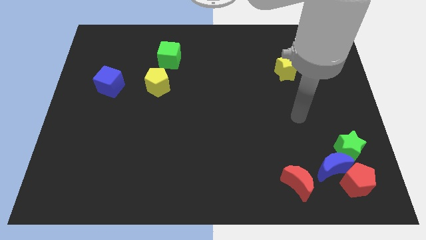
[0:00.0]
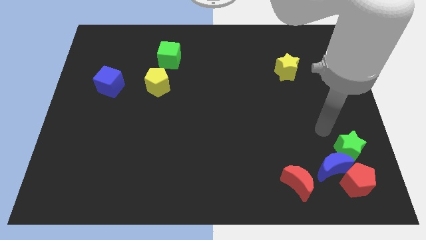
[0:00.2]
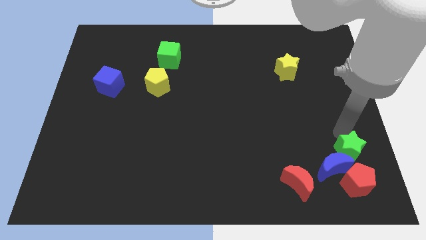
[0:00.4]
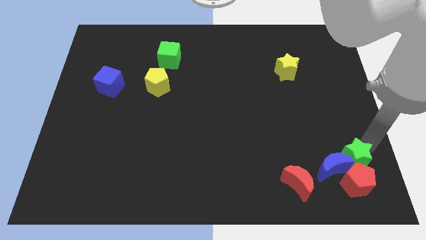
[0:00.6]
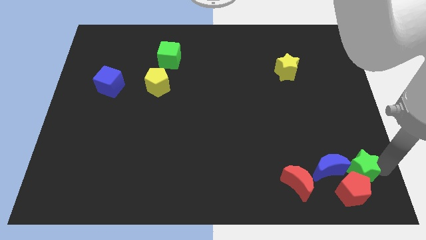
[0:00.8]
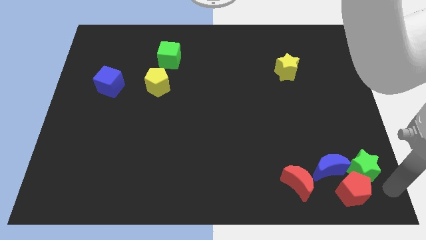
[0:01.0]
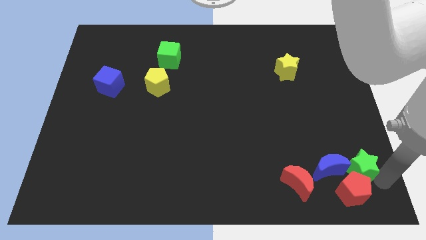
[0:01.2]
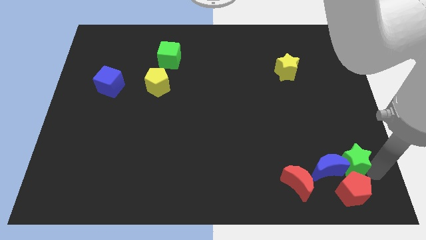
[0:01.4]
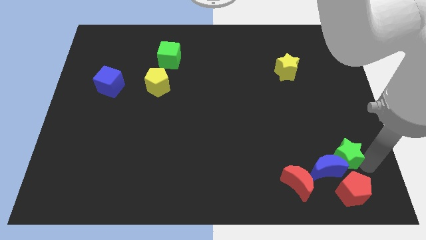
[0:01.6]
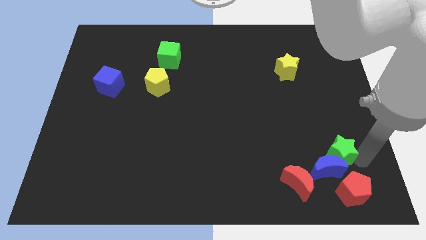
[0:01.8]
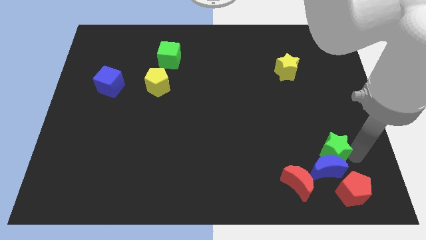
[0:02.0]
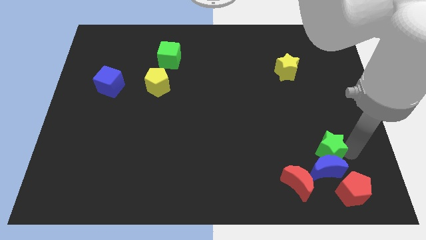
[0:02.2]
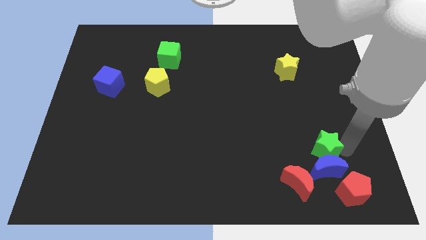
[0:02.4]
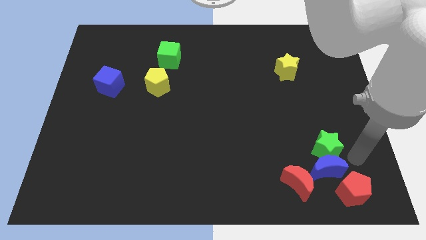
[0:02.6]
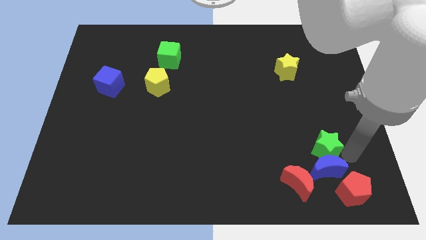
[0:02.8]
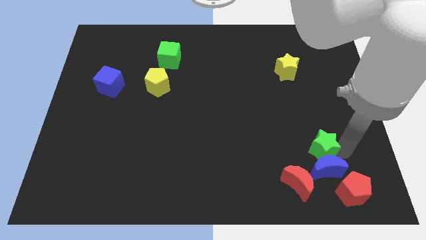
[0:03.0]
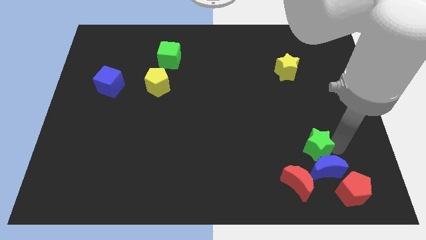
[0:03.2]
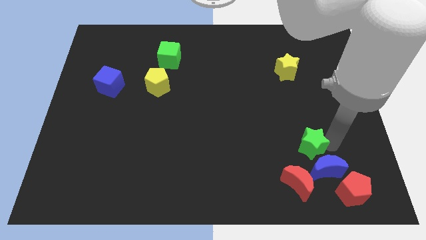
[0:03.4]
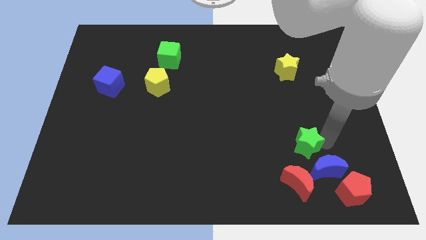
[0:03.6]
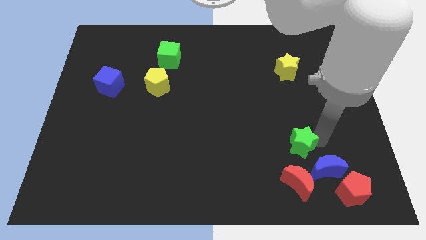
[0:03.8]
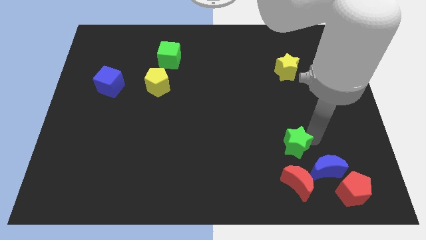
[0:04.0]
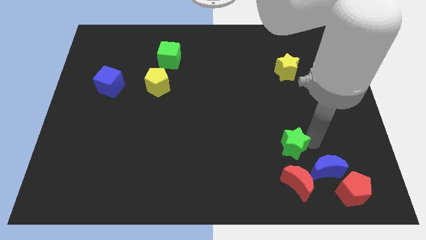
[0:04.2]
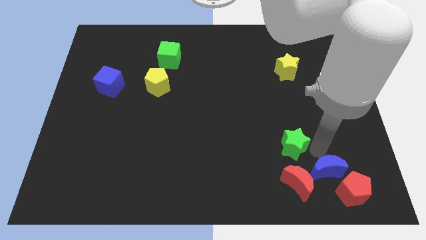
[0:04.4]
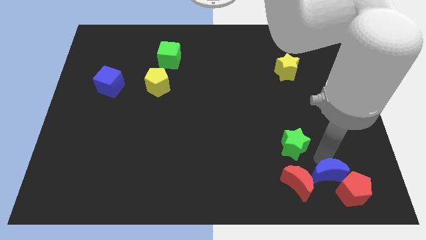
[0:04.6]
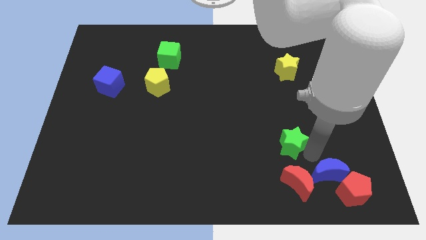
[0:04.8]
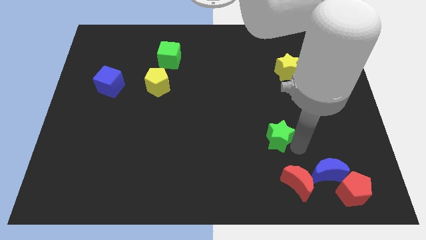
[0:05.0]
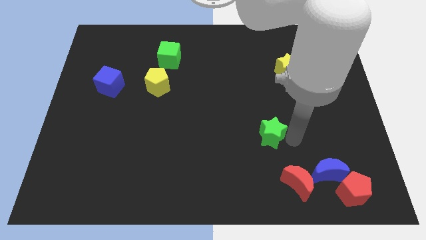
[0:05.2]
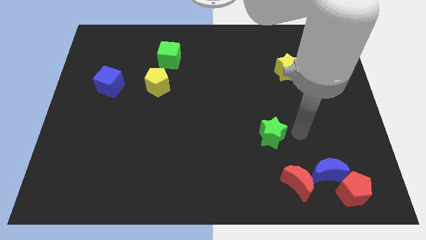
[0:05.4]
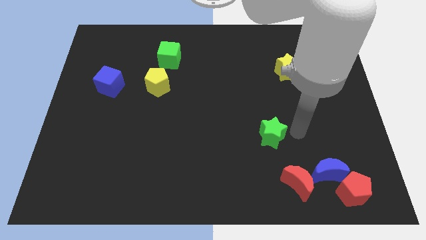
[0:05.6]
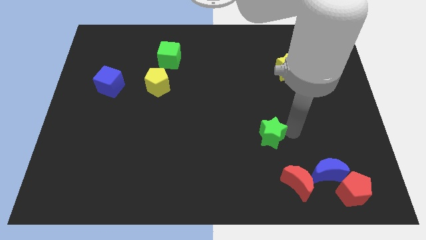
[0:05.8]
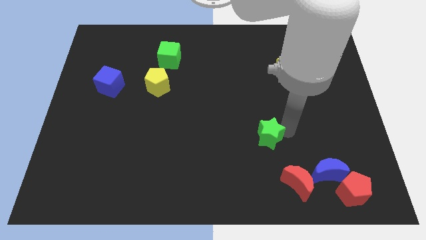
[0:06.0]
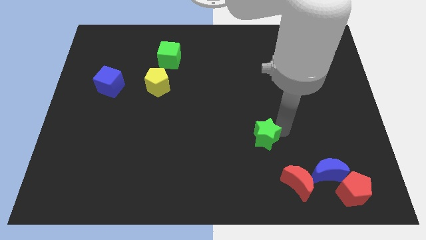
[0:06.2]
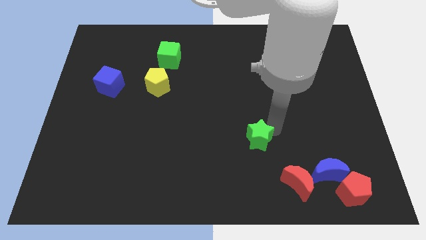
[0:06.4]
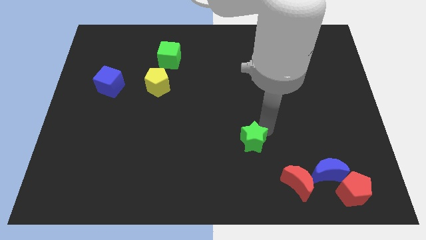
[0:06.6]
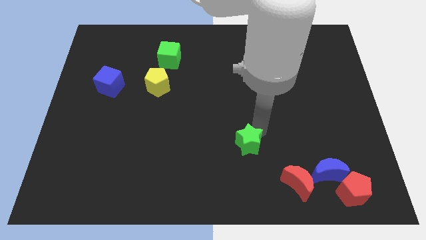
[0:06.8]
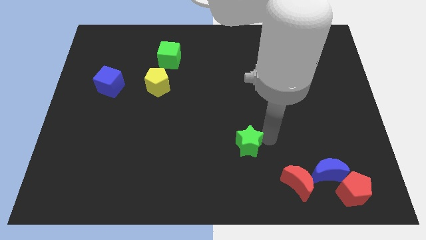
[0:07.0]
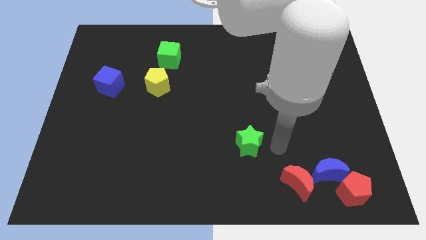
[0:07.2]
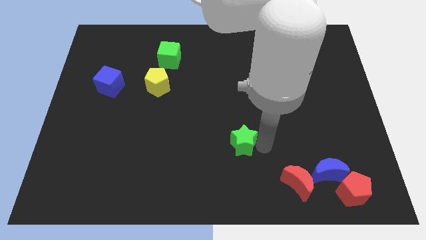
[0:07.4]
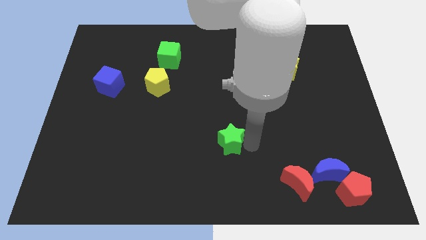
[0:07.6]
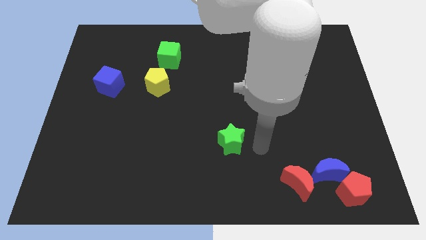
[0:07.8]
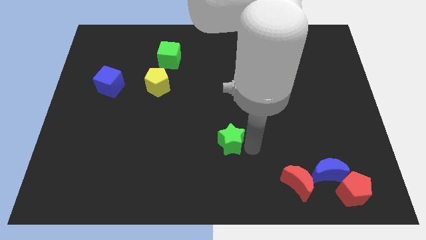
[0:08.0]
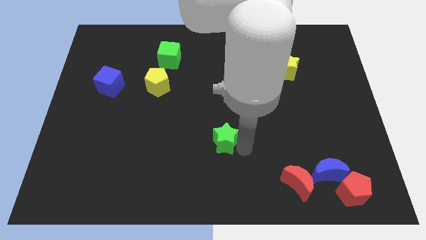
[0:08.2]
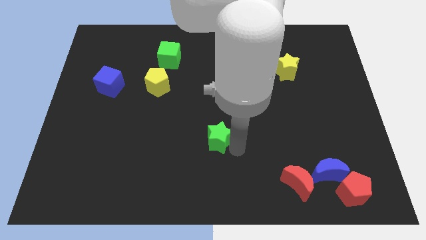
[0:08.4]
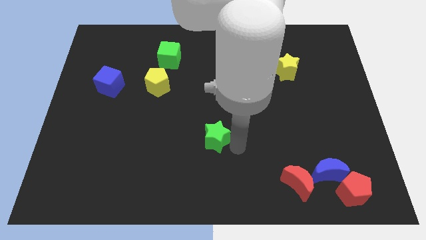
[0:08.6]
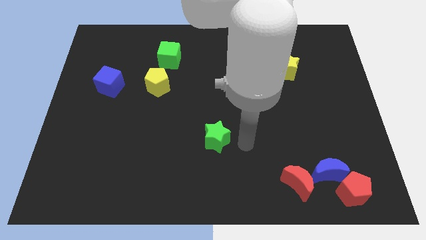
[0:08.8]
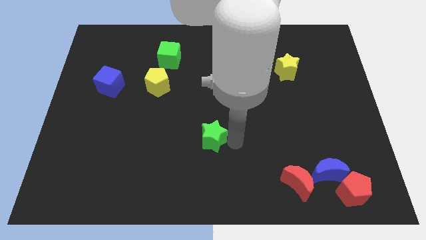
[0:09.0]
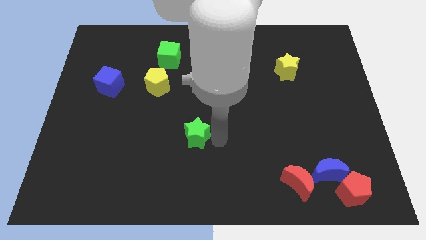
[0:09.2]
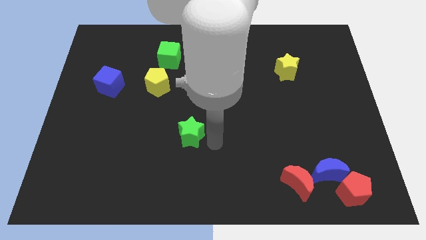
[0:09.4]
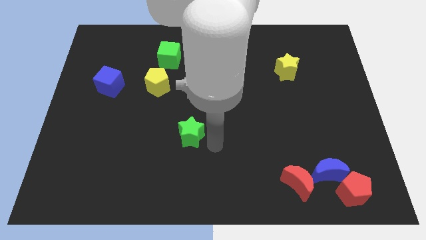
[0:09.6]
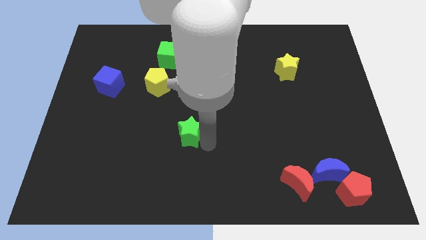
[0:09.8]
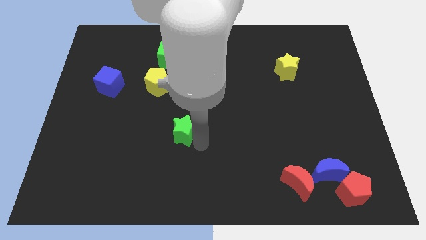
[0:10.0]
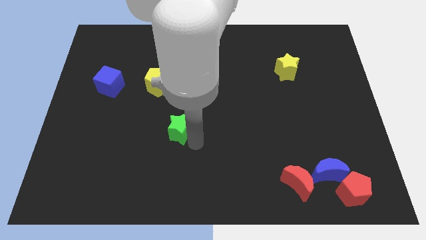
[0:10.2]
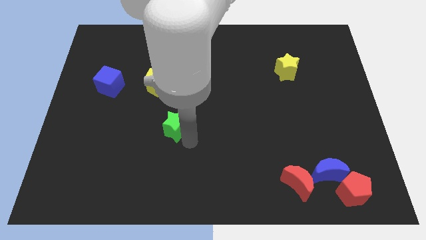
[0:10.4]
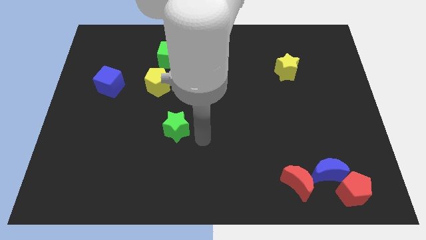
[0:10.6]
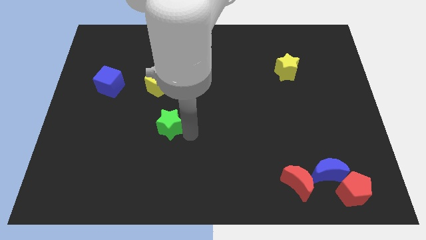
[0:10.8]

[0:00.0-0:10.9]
slide the green star below the yellow pentagon

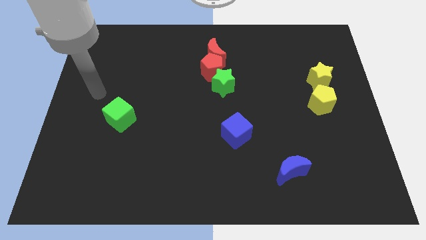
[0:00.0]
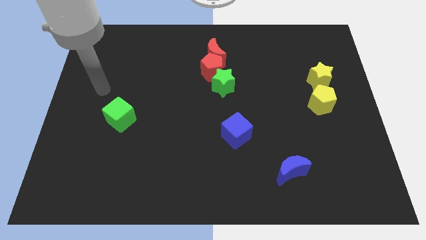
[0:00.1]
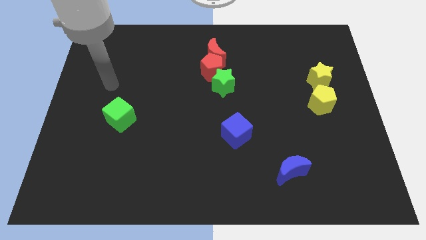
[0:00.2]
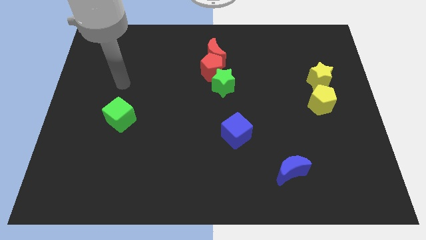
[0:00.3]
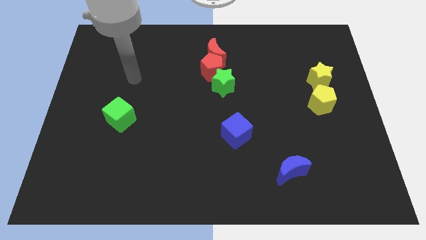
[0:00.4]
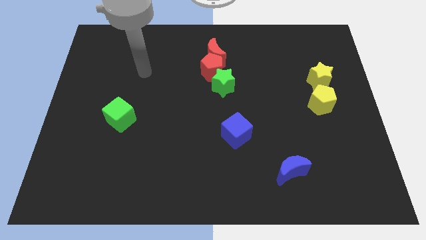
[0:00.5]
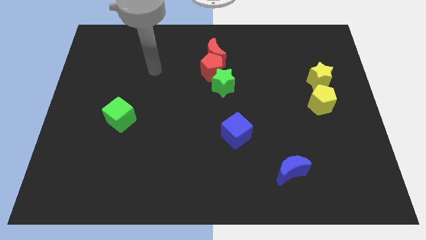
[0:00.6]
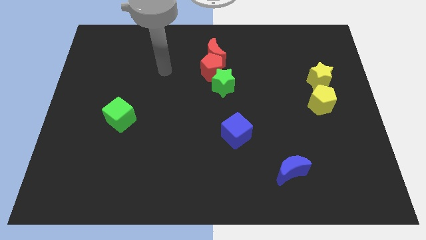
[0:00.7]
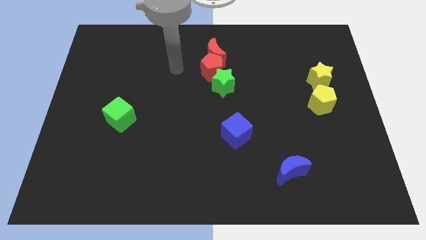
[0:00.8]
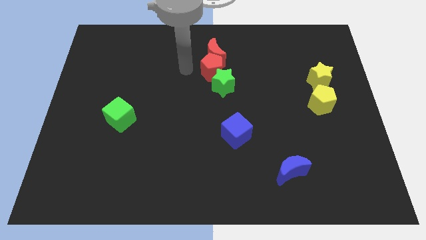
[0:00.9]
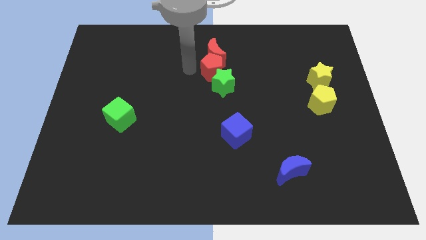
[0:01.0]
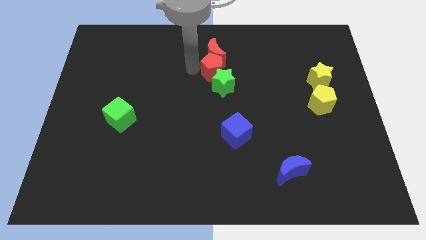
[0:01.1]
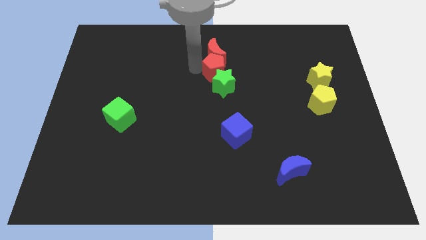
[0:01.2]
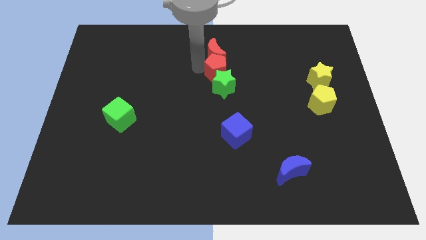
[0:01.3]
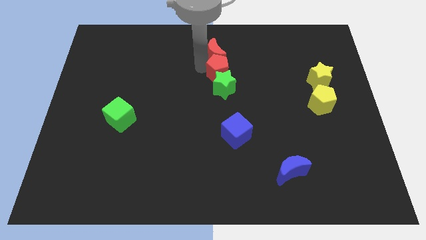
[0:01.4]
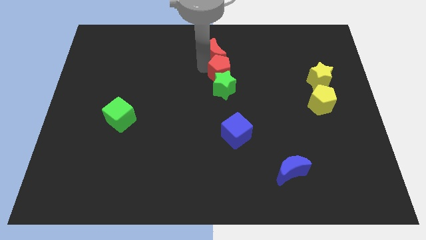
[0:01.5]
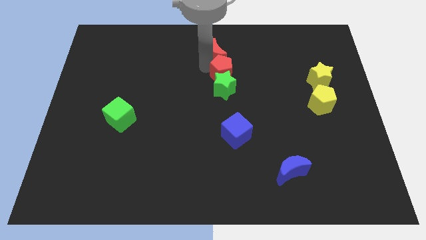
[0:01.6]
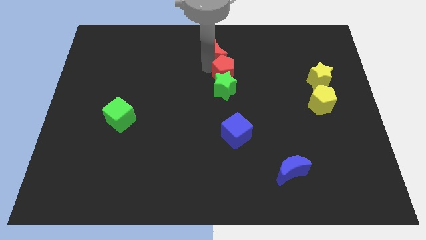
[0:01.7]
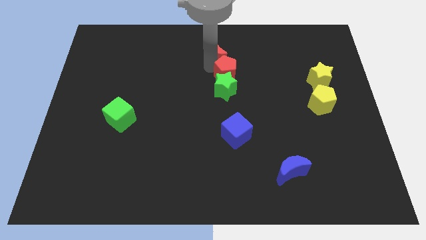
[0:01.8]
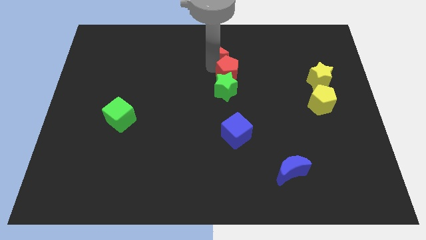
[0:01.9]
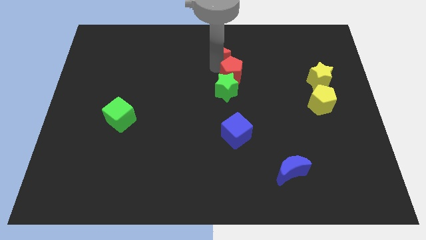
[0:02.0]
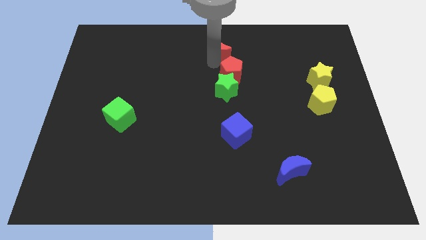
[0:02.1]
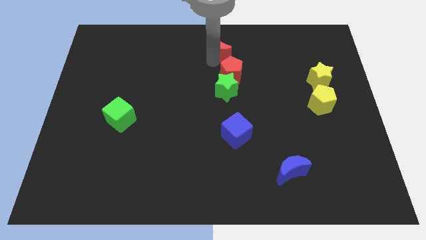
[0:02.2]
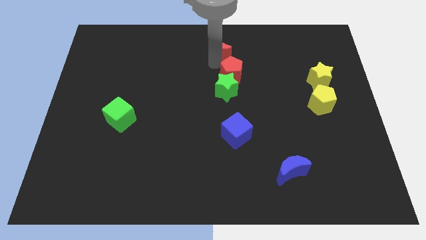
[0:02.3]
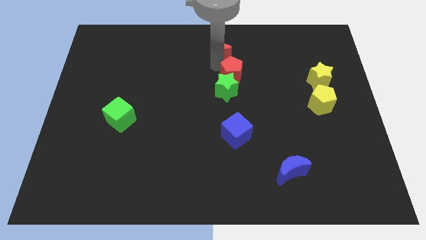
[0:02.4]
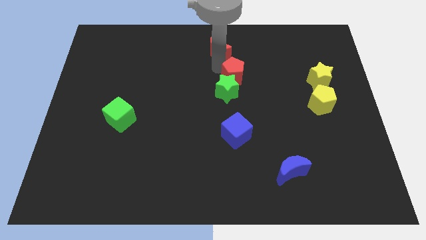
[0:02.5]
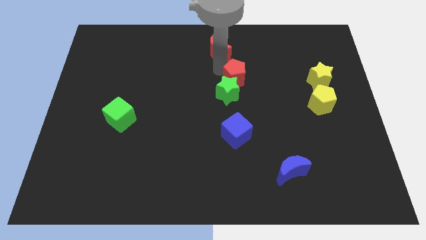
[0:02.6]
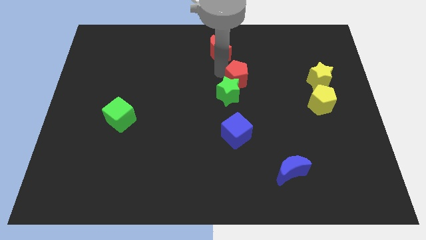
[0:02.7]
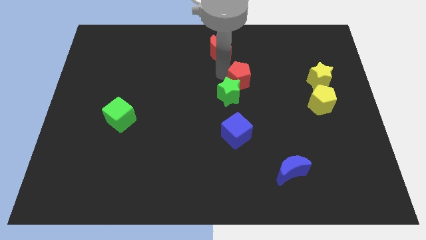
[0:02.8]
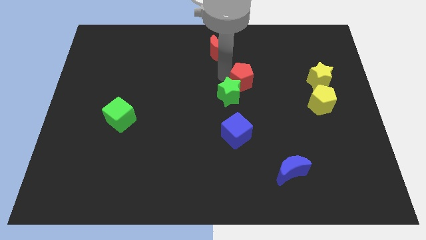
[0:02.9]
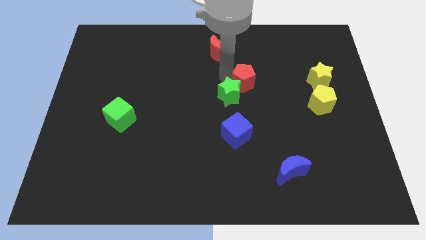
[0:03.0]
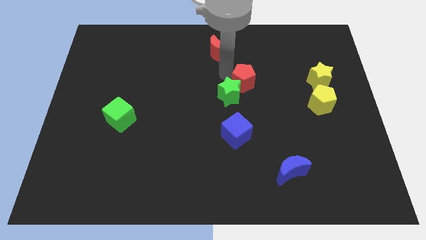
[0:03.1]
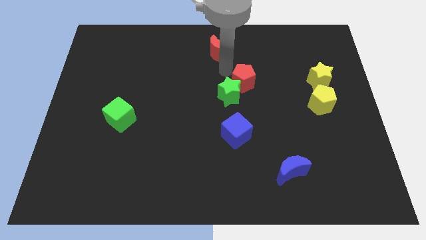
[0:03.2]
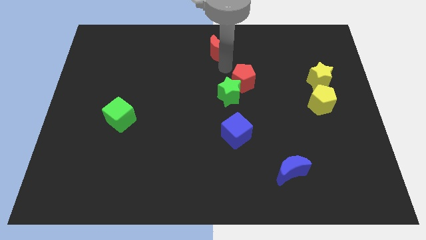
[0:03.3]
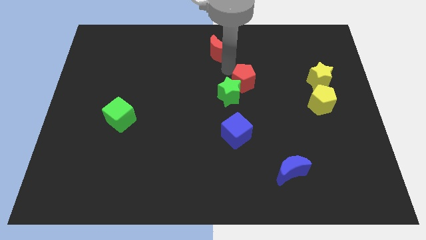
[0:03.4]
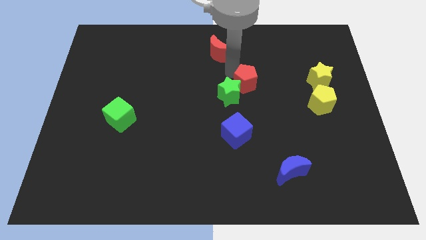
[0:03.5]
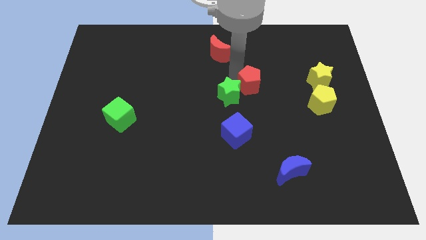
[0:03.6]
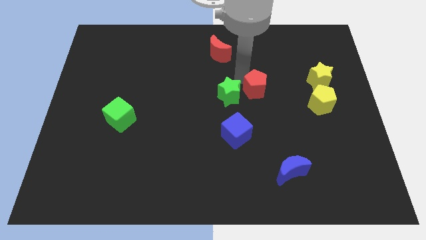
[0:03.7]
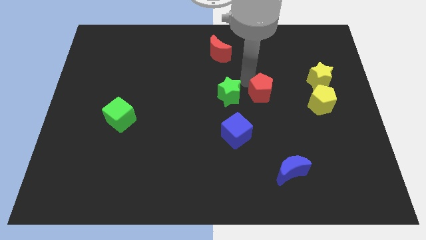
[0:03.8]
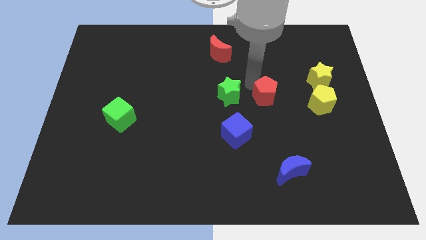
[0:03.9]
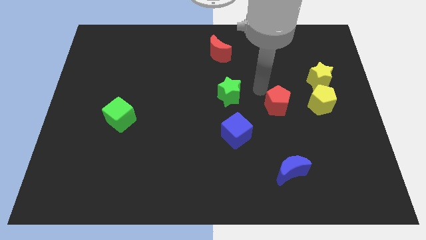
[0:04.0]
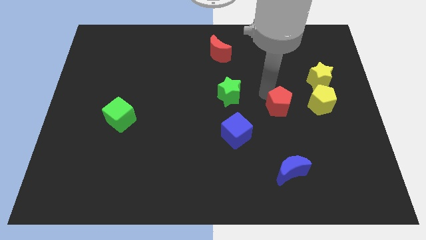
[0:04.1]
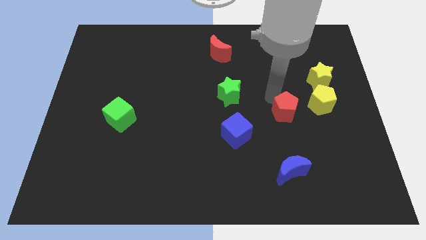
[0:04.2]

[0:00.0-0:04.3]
slide the red pentagon above the blue moon
